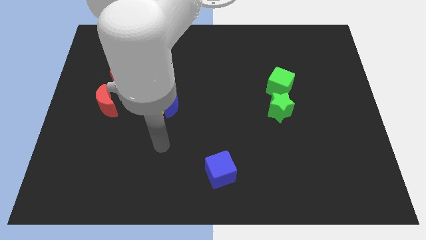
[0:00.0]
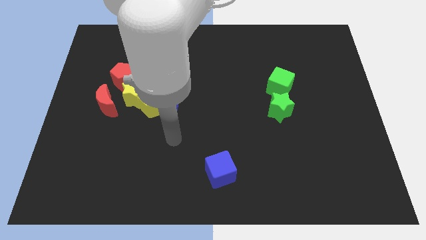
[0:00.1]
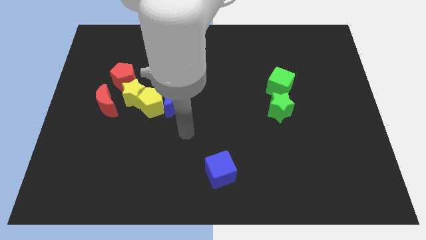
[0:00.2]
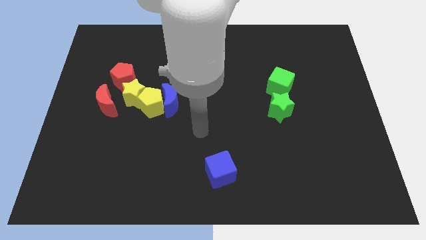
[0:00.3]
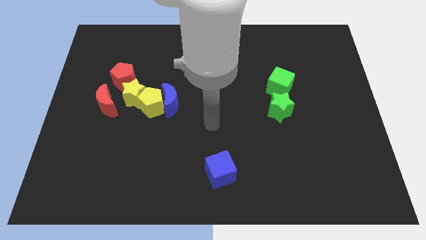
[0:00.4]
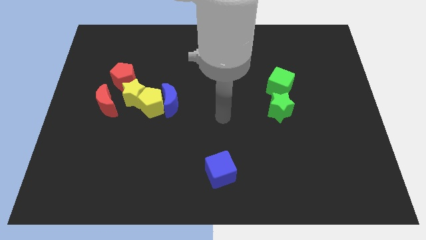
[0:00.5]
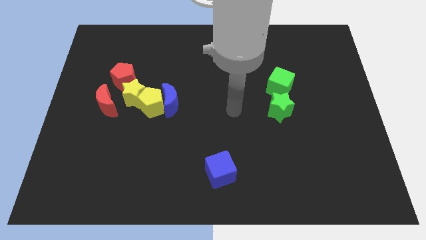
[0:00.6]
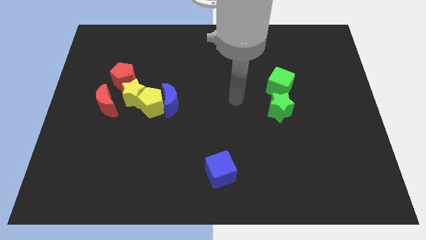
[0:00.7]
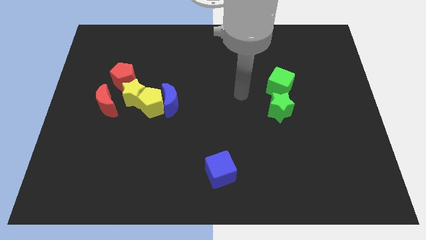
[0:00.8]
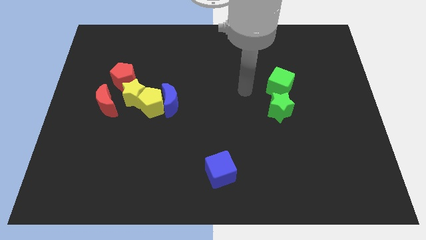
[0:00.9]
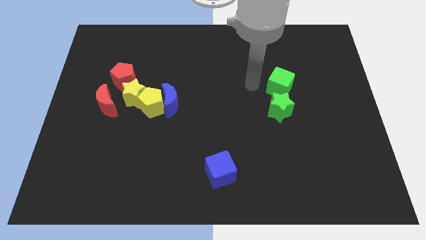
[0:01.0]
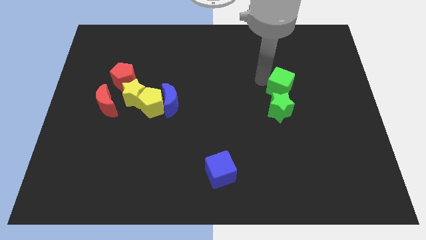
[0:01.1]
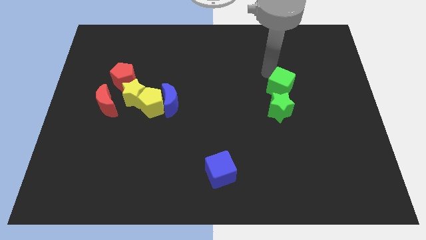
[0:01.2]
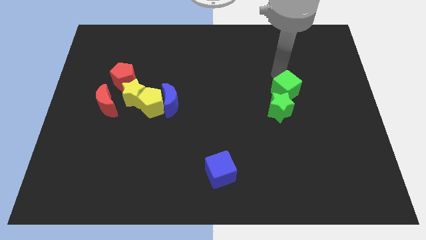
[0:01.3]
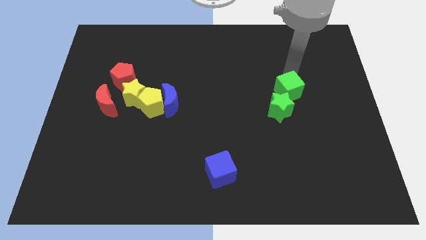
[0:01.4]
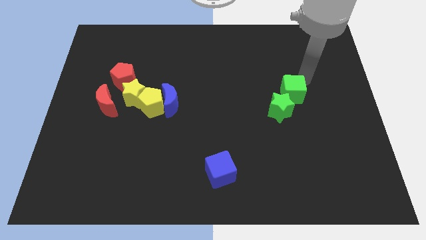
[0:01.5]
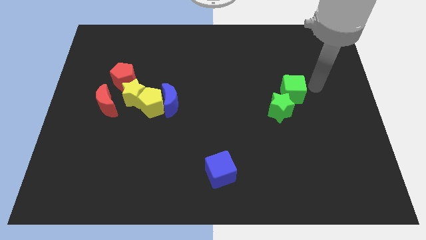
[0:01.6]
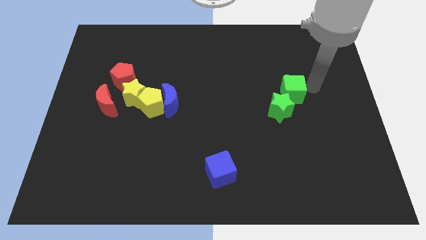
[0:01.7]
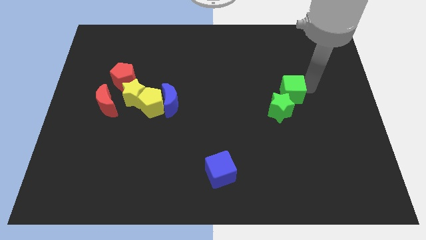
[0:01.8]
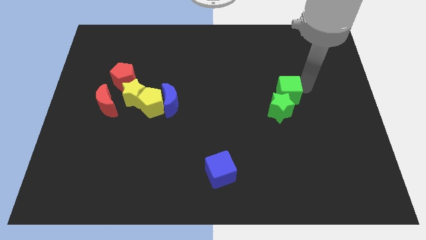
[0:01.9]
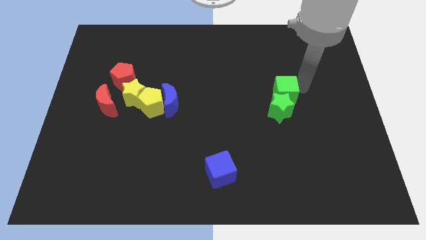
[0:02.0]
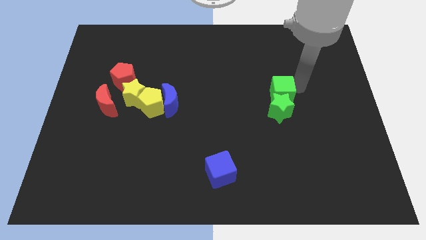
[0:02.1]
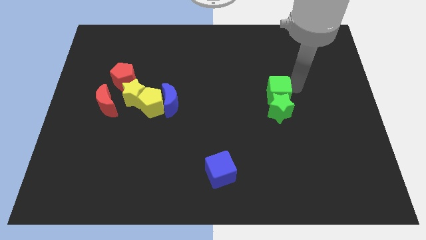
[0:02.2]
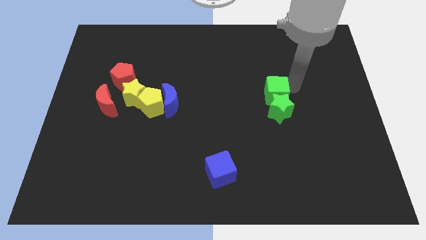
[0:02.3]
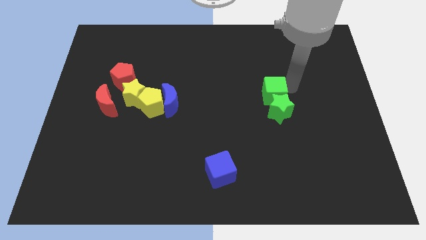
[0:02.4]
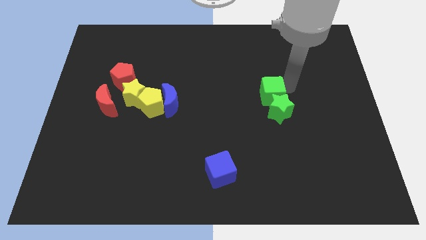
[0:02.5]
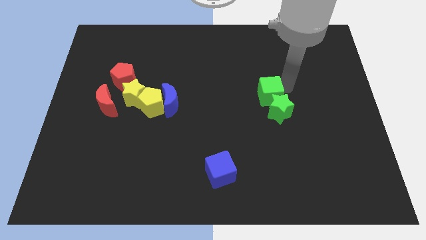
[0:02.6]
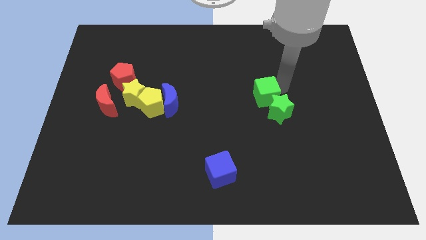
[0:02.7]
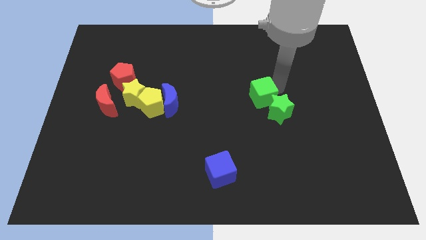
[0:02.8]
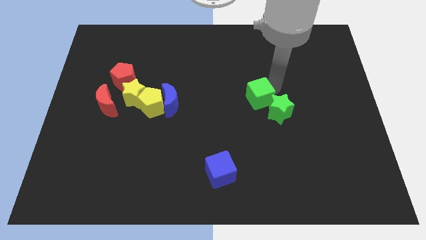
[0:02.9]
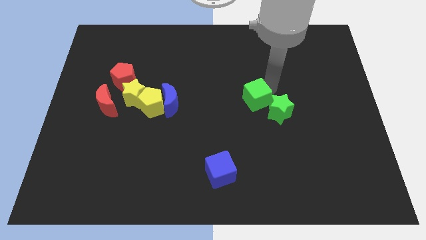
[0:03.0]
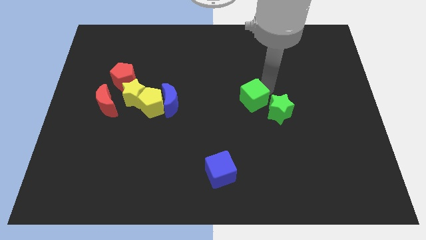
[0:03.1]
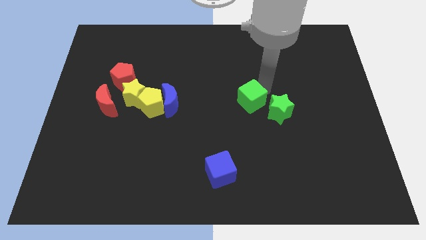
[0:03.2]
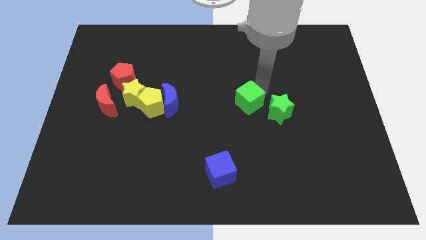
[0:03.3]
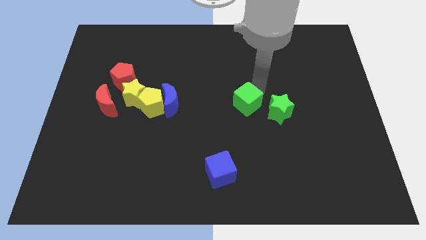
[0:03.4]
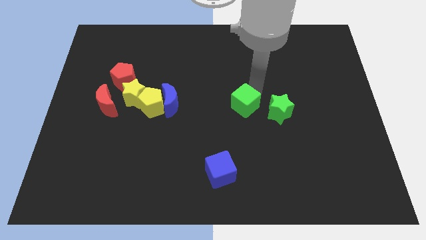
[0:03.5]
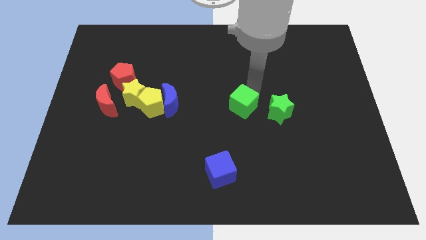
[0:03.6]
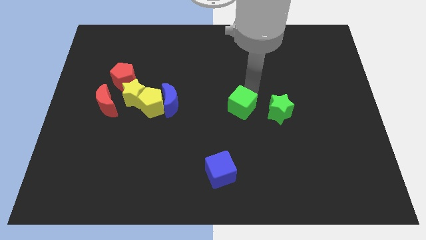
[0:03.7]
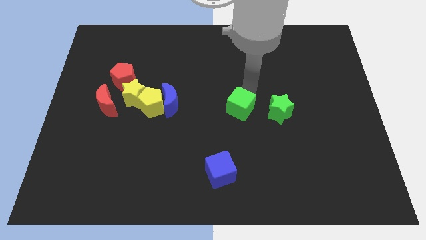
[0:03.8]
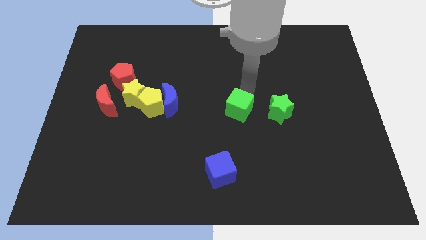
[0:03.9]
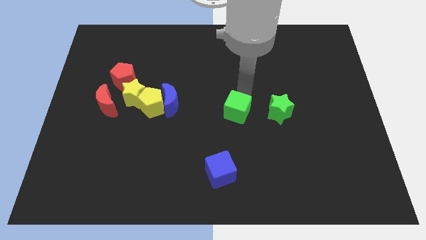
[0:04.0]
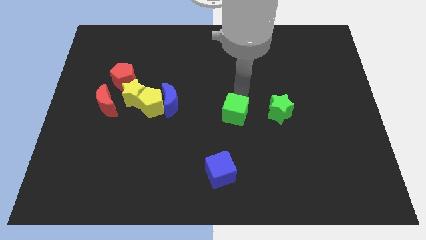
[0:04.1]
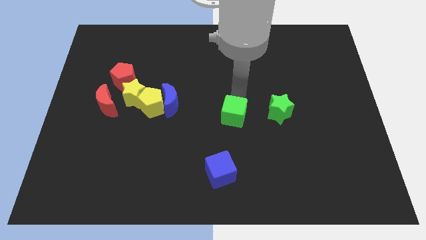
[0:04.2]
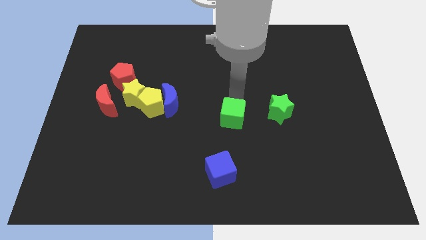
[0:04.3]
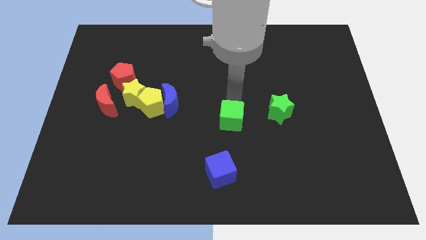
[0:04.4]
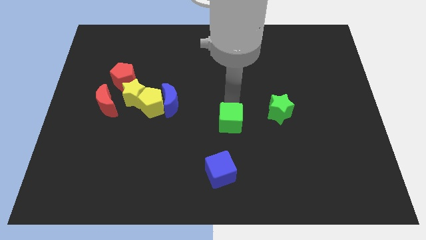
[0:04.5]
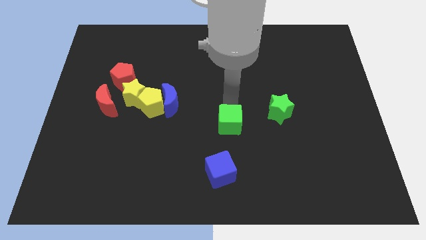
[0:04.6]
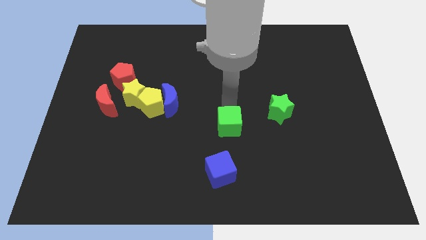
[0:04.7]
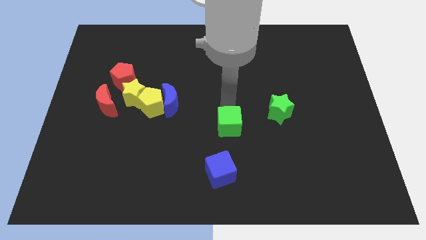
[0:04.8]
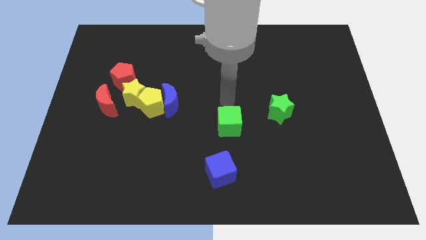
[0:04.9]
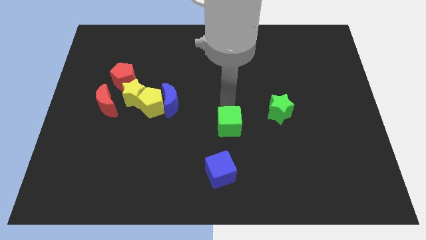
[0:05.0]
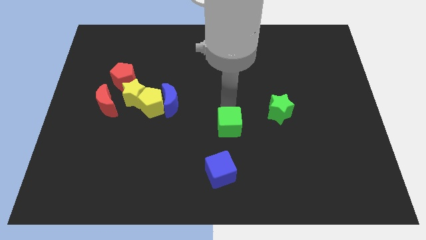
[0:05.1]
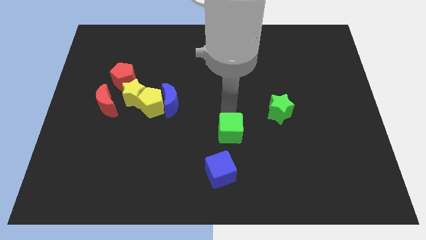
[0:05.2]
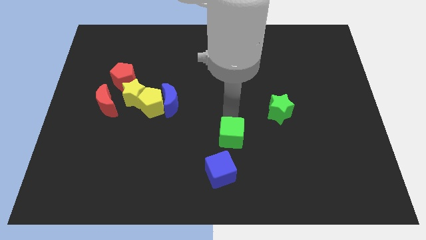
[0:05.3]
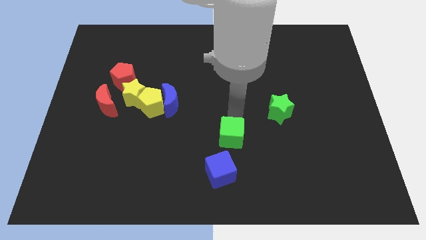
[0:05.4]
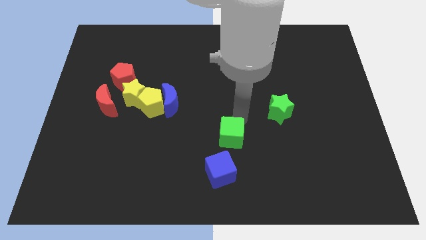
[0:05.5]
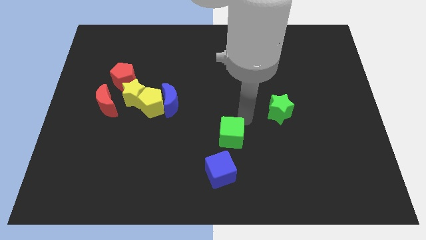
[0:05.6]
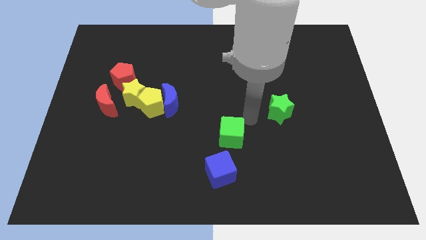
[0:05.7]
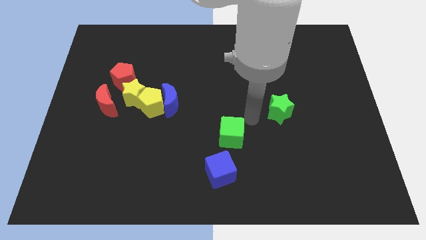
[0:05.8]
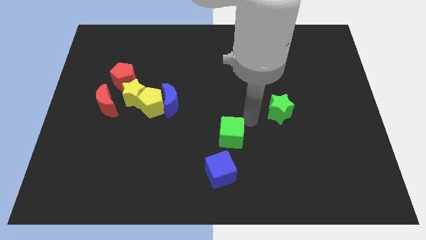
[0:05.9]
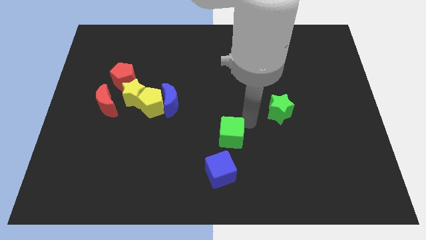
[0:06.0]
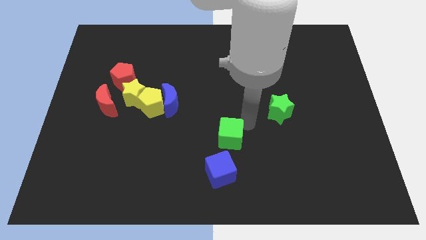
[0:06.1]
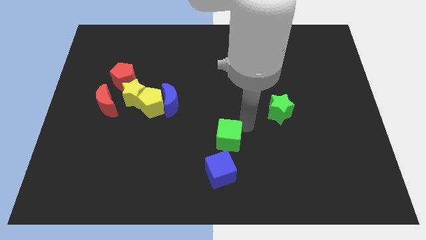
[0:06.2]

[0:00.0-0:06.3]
slide the green cube down and to the left

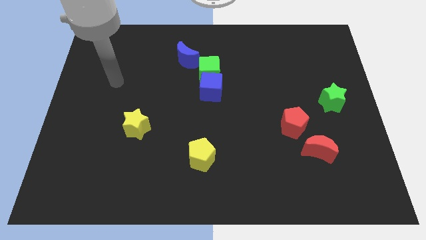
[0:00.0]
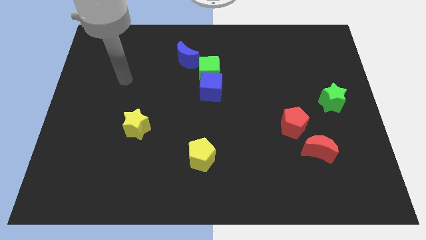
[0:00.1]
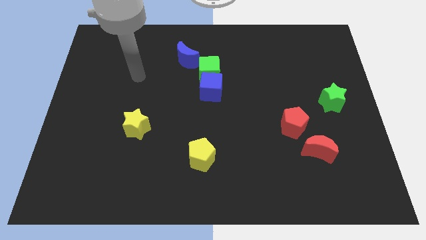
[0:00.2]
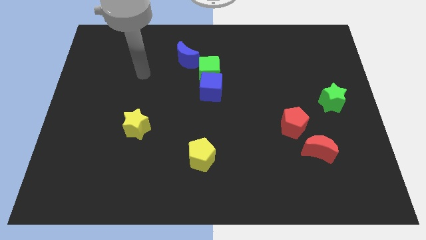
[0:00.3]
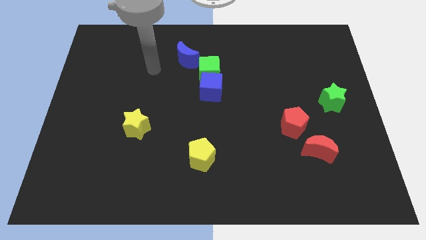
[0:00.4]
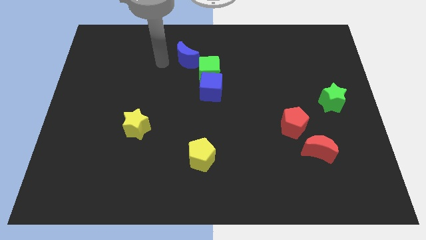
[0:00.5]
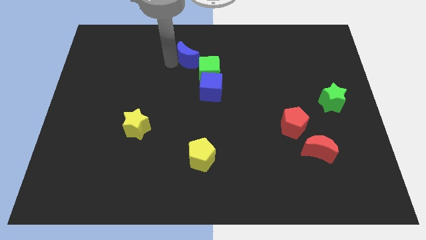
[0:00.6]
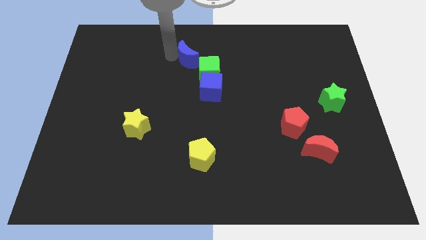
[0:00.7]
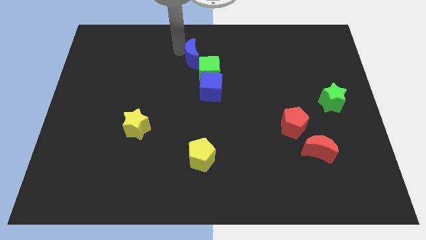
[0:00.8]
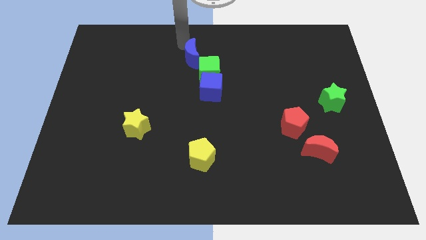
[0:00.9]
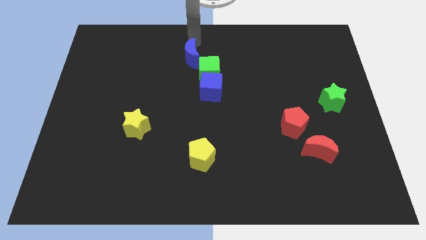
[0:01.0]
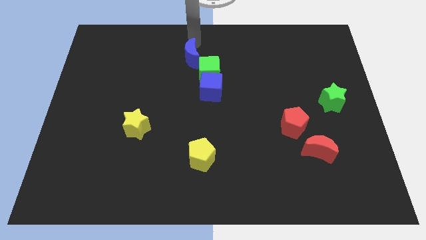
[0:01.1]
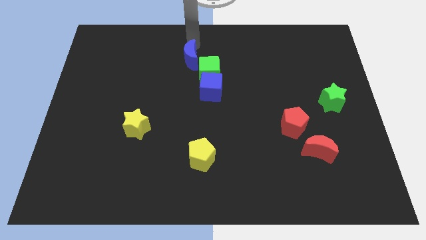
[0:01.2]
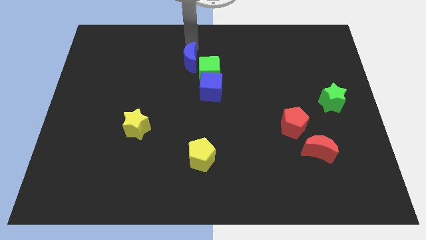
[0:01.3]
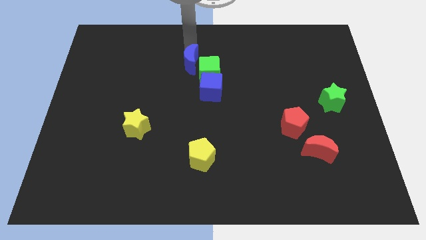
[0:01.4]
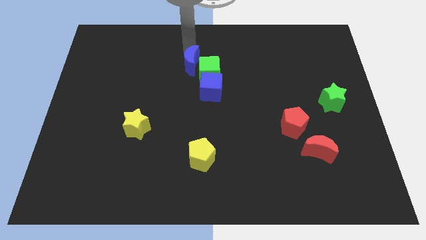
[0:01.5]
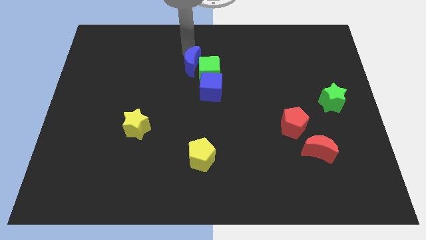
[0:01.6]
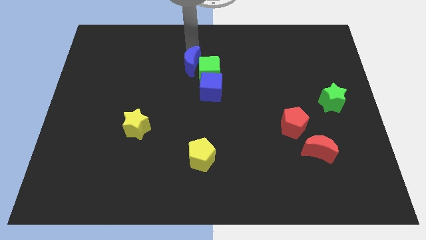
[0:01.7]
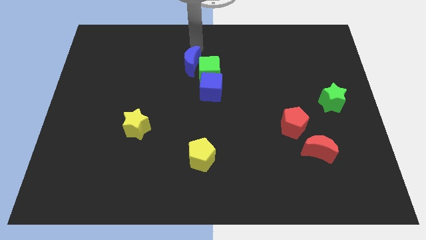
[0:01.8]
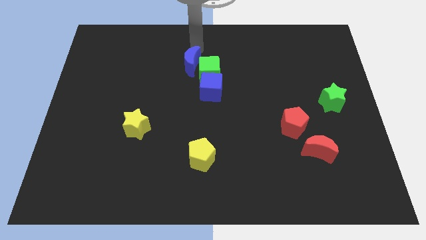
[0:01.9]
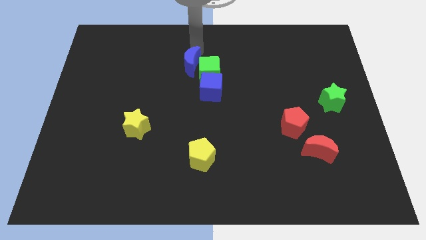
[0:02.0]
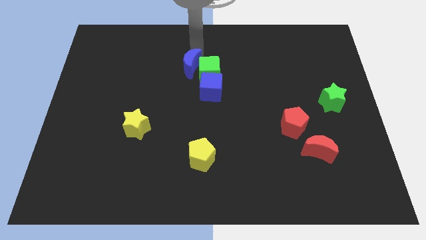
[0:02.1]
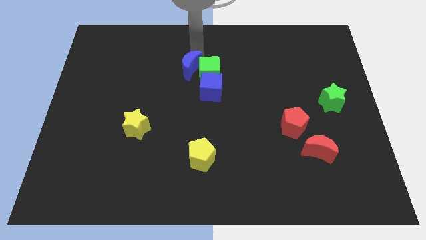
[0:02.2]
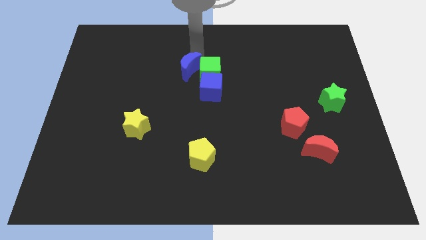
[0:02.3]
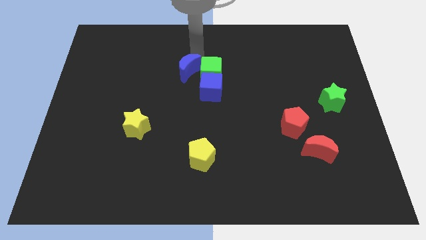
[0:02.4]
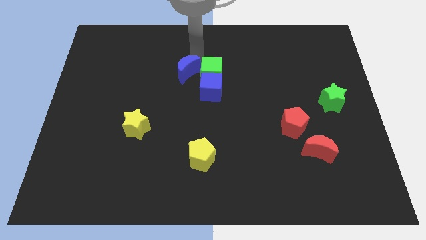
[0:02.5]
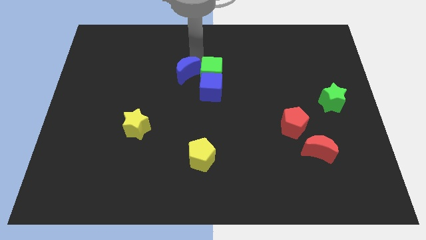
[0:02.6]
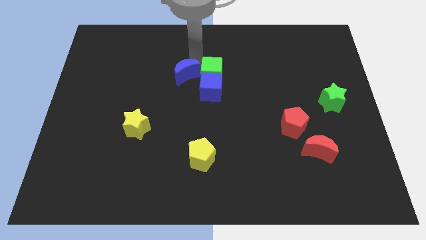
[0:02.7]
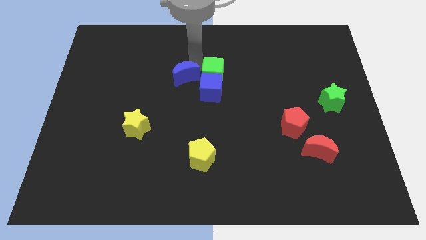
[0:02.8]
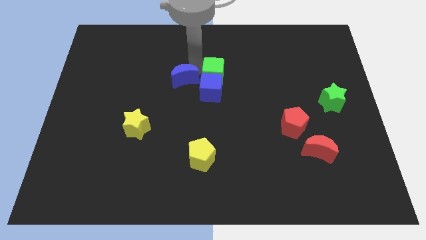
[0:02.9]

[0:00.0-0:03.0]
slightly move the blue moon downwards
